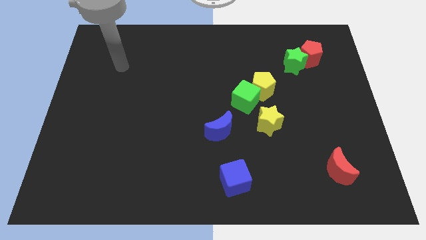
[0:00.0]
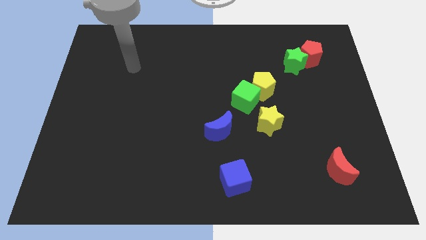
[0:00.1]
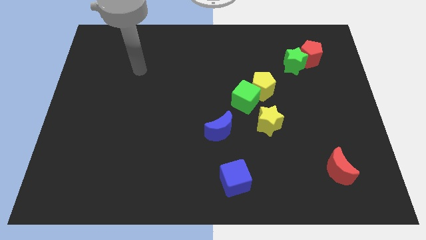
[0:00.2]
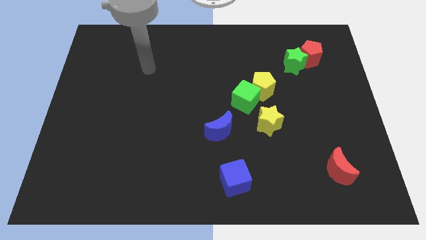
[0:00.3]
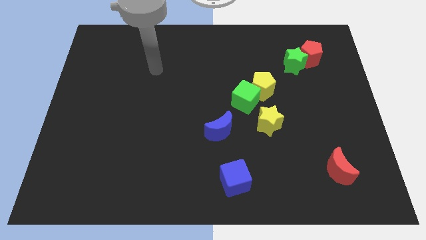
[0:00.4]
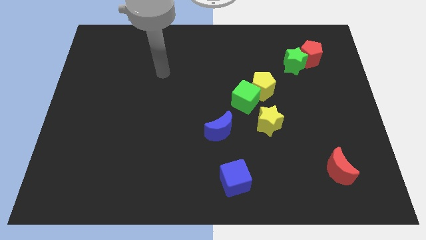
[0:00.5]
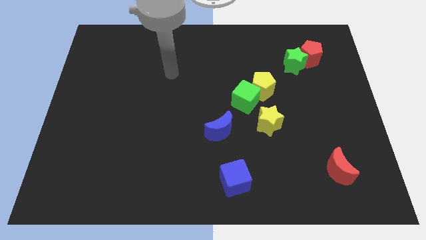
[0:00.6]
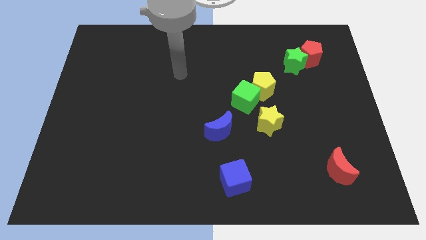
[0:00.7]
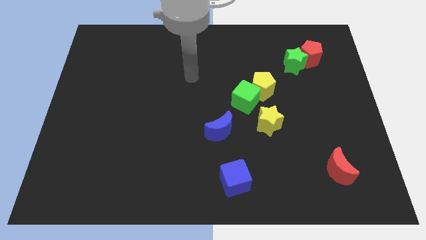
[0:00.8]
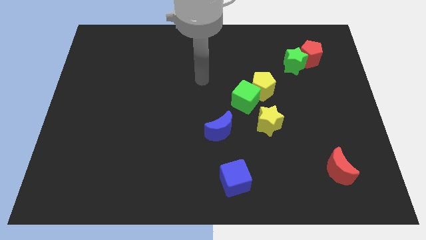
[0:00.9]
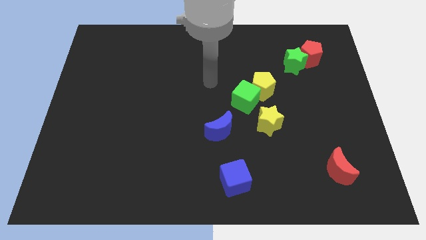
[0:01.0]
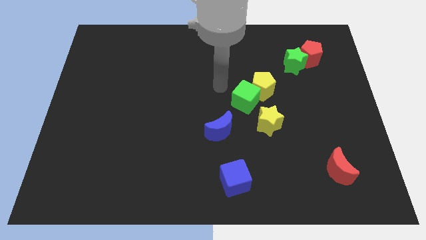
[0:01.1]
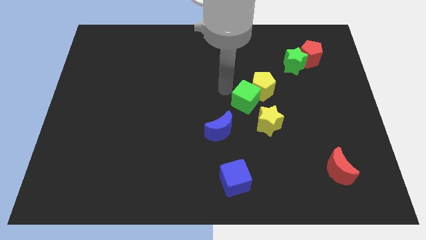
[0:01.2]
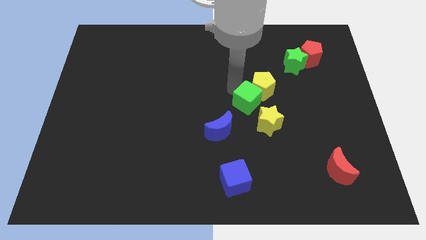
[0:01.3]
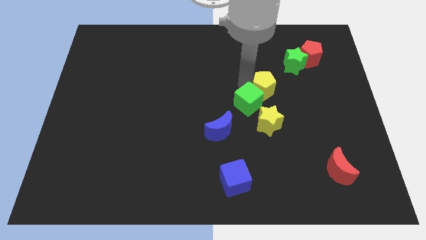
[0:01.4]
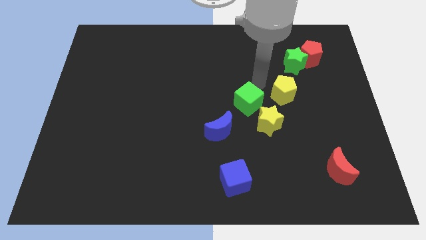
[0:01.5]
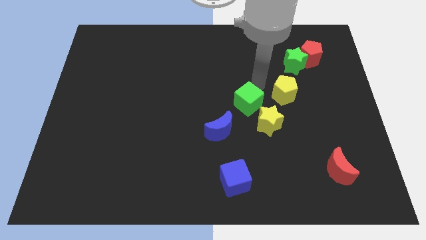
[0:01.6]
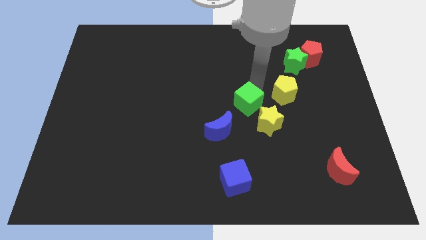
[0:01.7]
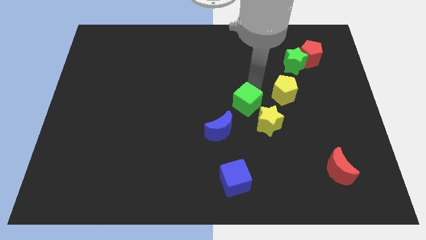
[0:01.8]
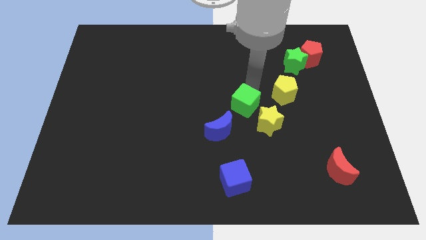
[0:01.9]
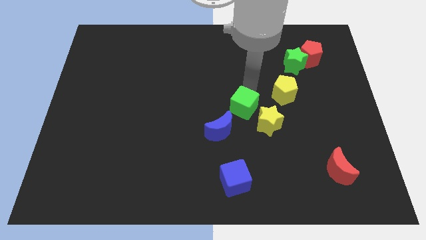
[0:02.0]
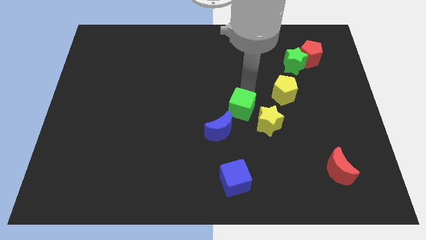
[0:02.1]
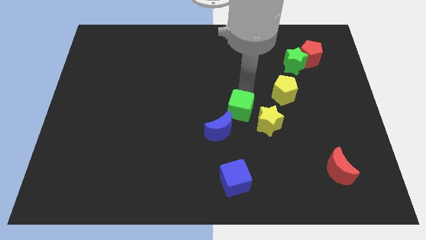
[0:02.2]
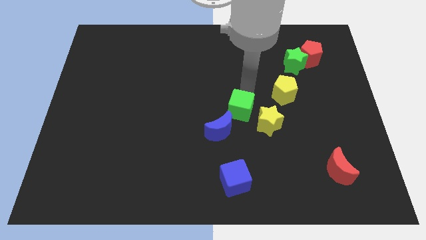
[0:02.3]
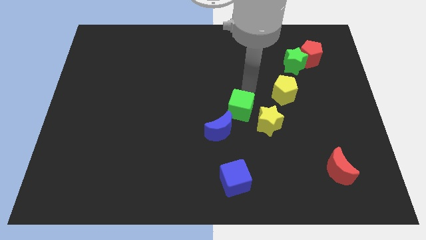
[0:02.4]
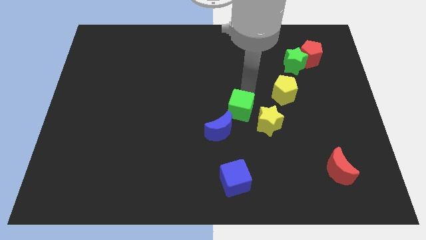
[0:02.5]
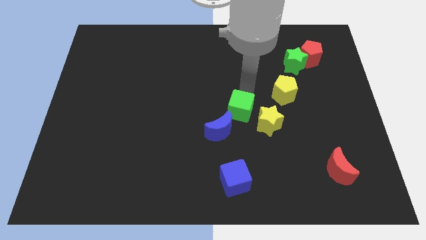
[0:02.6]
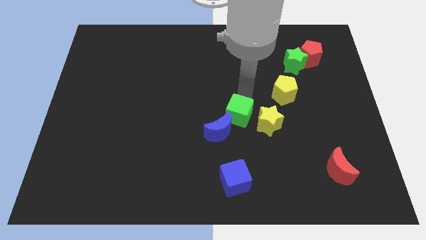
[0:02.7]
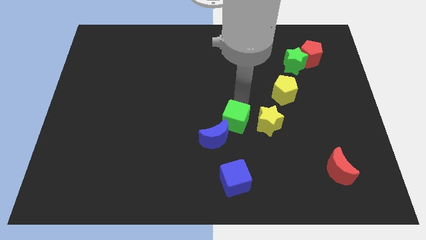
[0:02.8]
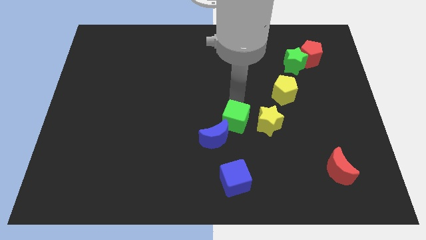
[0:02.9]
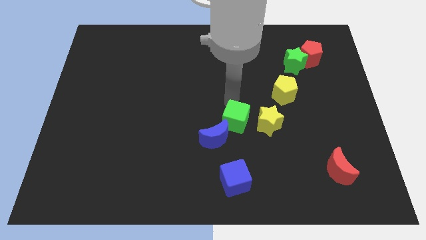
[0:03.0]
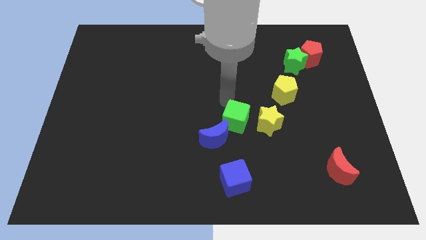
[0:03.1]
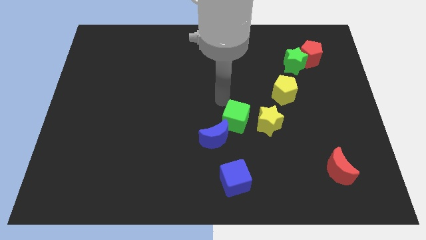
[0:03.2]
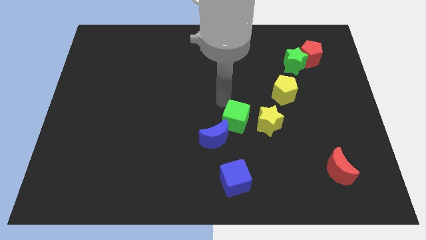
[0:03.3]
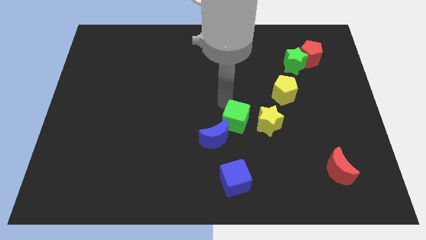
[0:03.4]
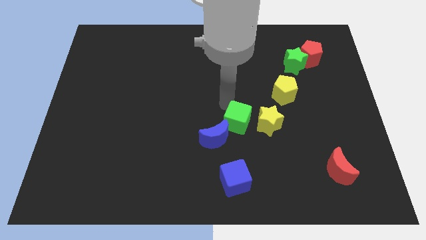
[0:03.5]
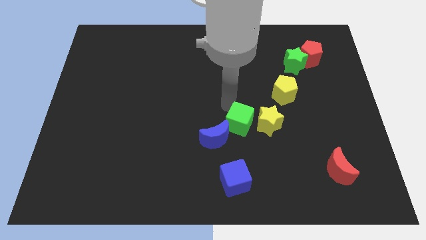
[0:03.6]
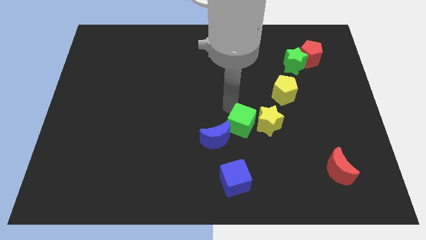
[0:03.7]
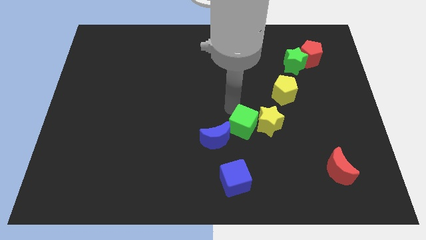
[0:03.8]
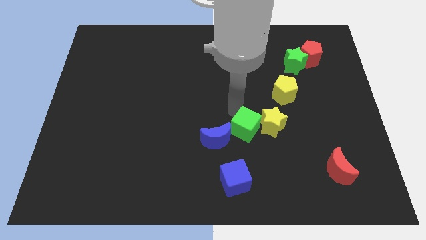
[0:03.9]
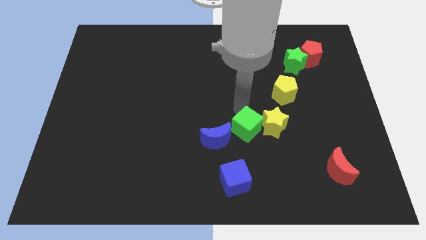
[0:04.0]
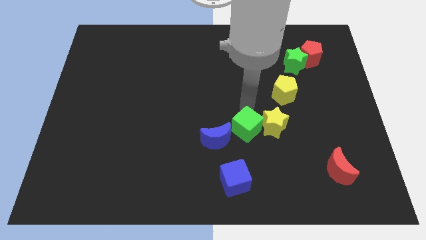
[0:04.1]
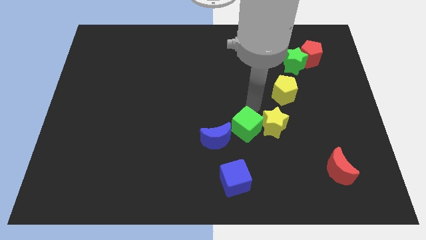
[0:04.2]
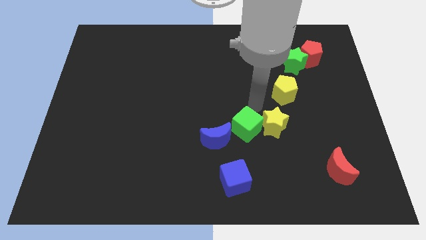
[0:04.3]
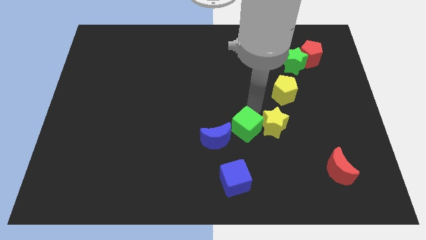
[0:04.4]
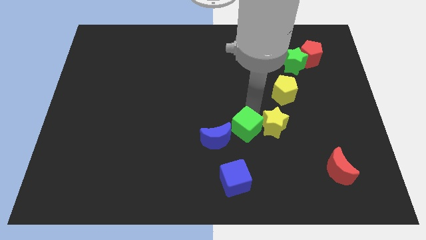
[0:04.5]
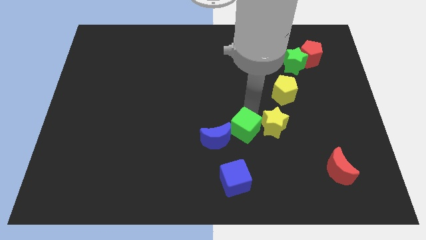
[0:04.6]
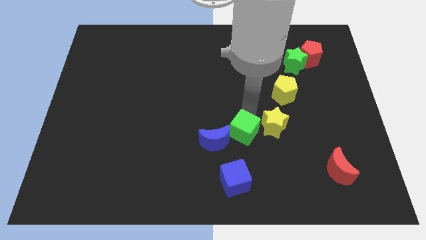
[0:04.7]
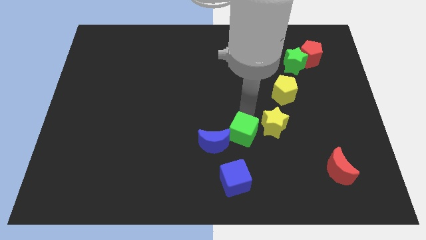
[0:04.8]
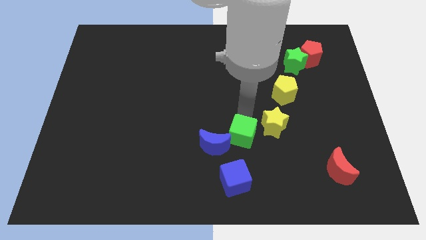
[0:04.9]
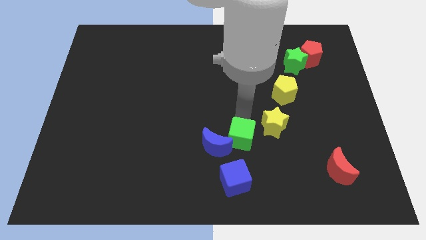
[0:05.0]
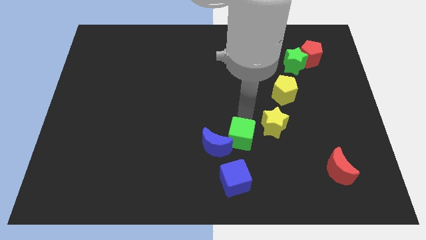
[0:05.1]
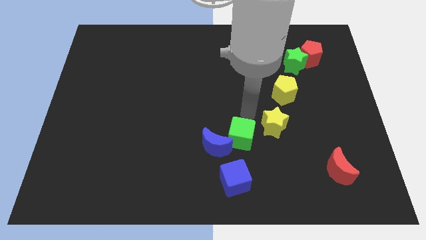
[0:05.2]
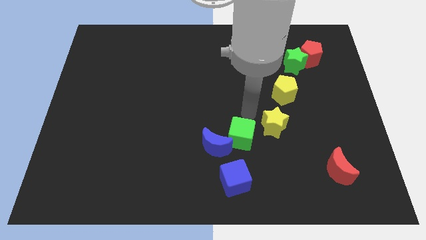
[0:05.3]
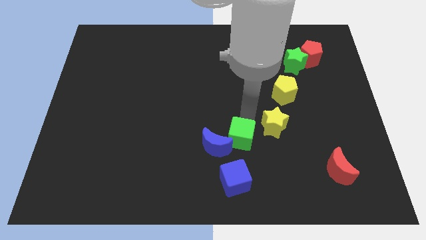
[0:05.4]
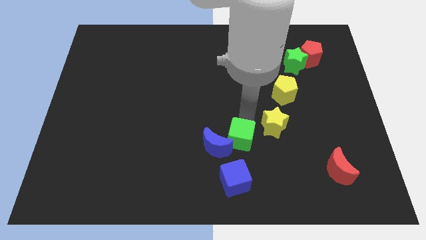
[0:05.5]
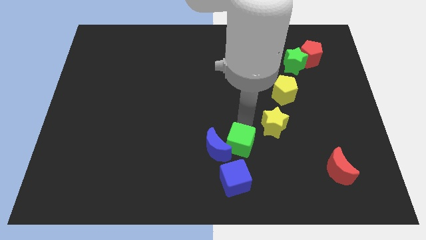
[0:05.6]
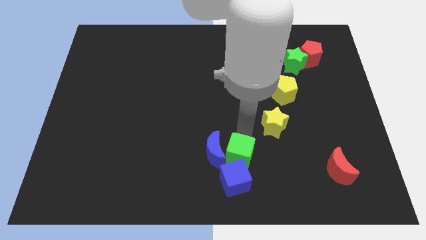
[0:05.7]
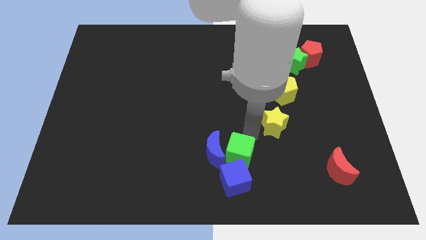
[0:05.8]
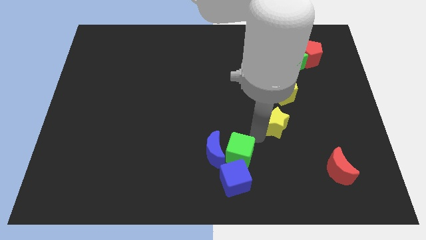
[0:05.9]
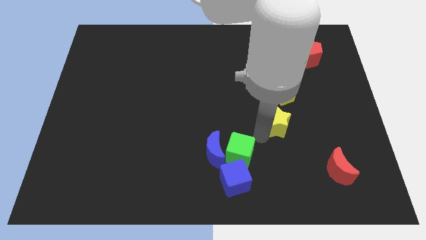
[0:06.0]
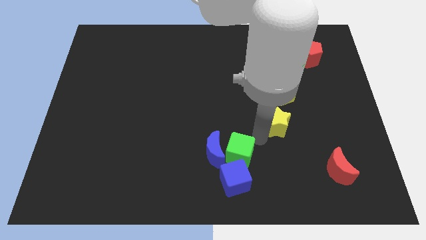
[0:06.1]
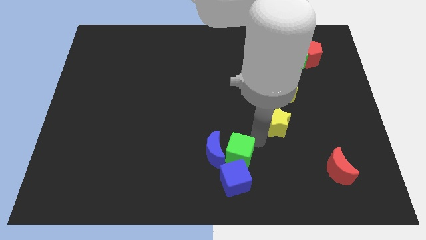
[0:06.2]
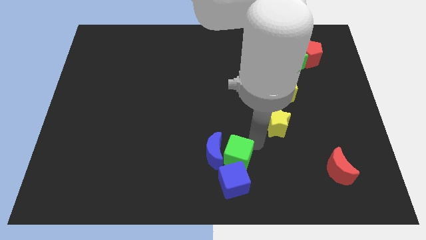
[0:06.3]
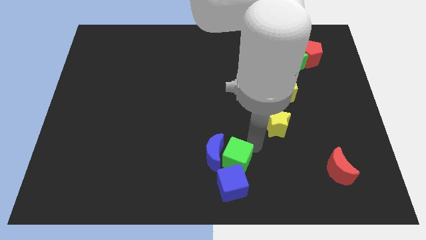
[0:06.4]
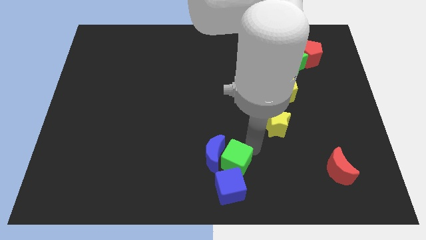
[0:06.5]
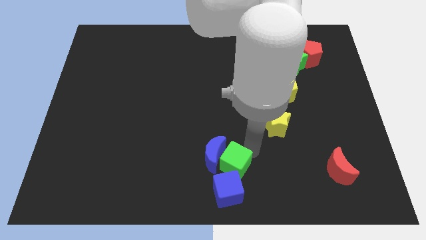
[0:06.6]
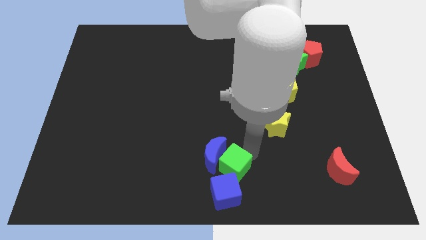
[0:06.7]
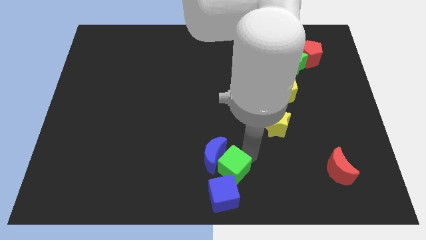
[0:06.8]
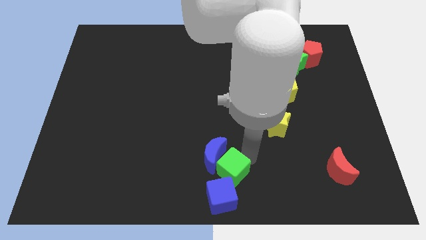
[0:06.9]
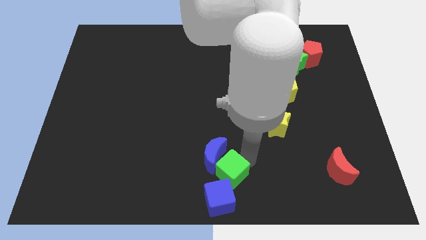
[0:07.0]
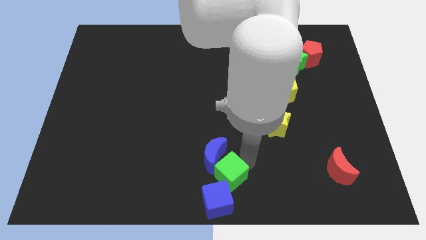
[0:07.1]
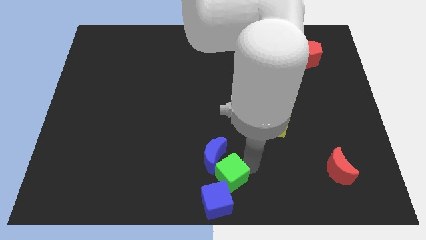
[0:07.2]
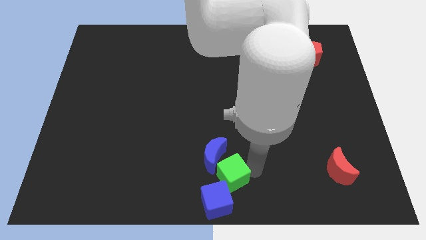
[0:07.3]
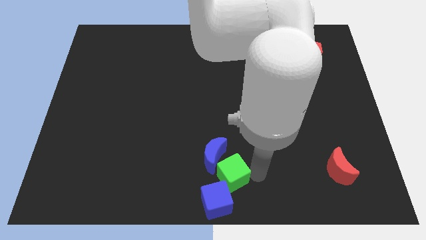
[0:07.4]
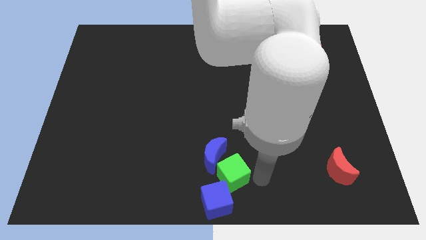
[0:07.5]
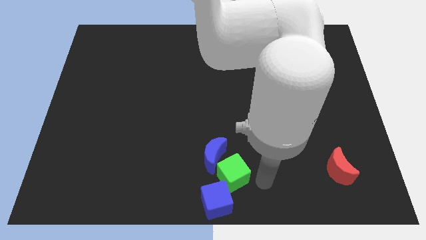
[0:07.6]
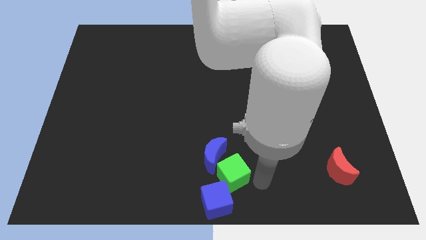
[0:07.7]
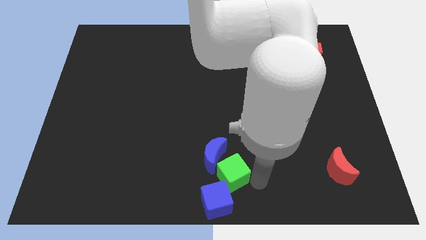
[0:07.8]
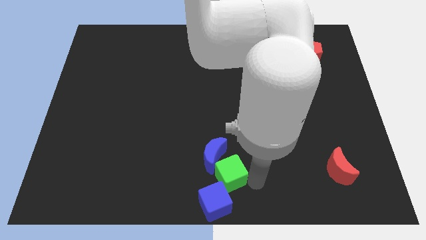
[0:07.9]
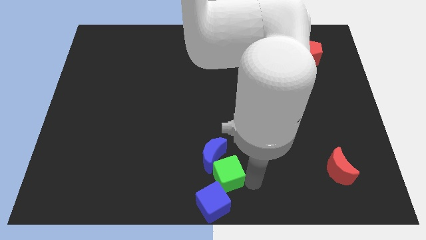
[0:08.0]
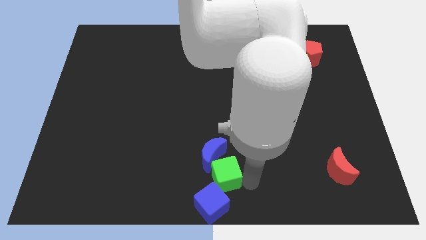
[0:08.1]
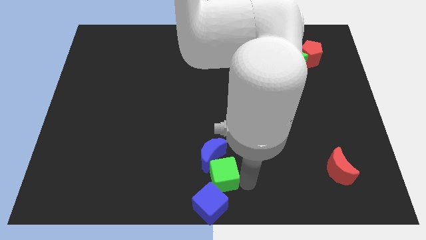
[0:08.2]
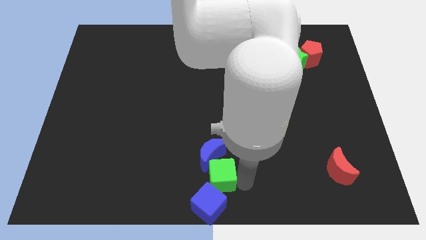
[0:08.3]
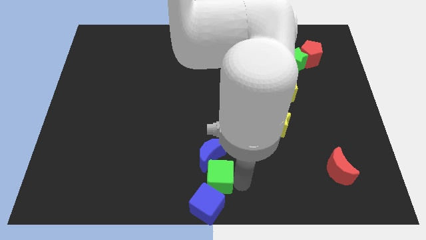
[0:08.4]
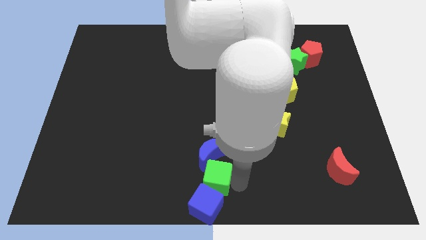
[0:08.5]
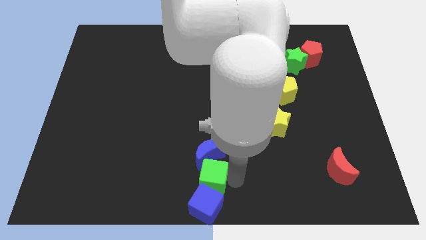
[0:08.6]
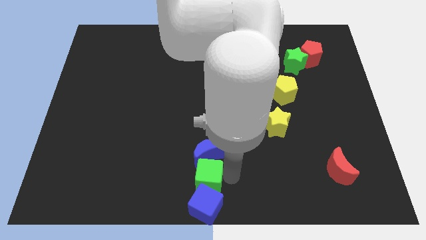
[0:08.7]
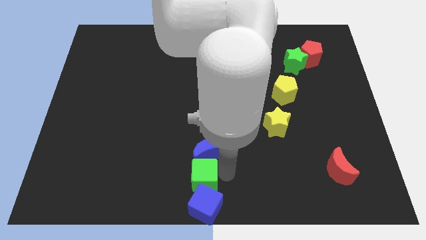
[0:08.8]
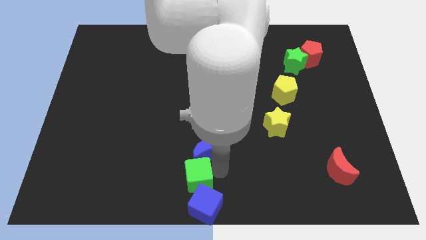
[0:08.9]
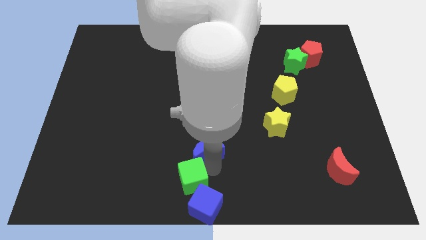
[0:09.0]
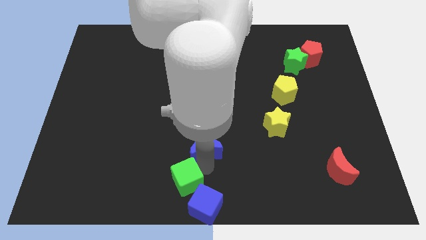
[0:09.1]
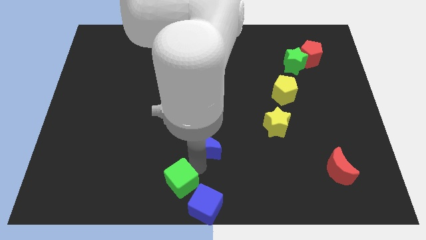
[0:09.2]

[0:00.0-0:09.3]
push the green cube to the bottom of the blue moon
